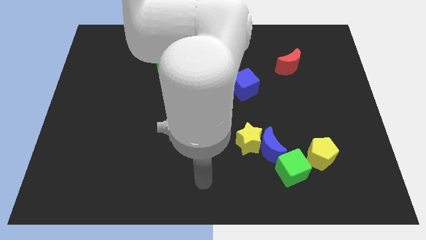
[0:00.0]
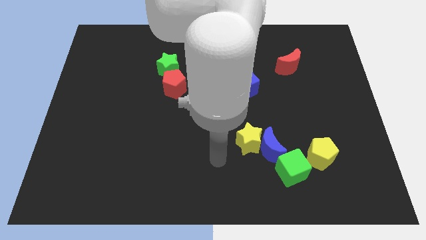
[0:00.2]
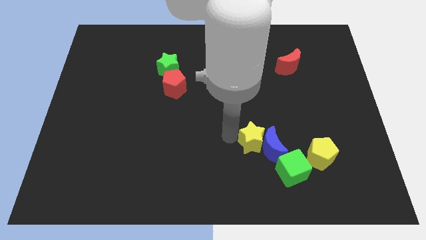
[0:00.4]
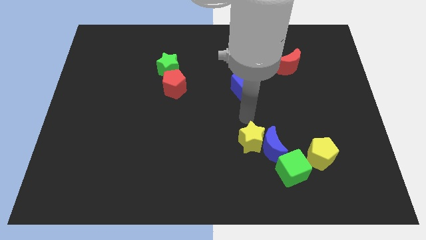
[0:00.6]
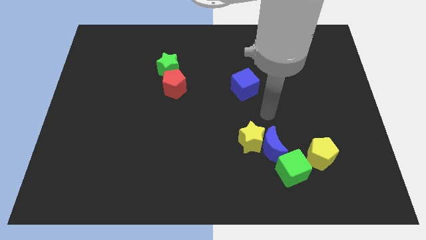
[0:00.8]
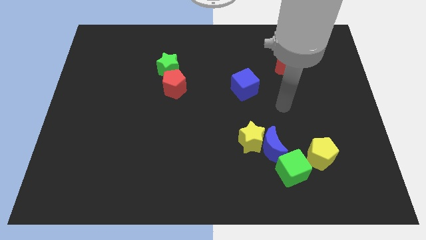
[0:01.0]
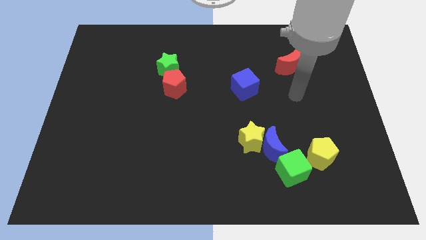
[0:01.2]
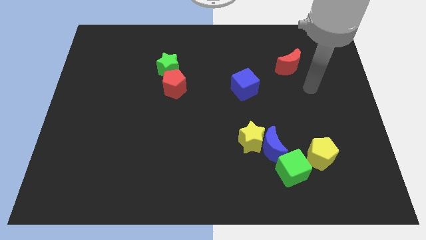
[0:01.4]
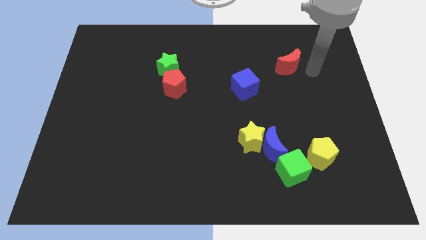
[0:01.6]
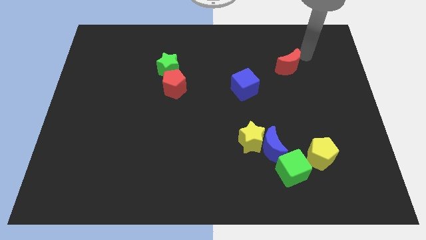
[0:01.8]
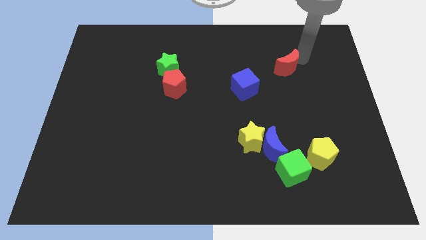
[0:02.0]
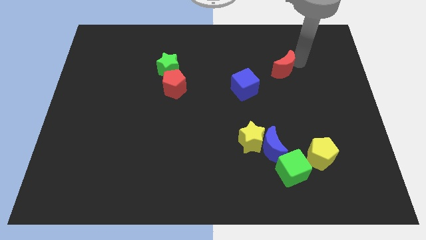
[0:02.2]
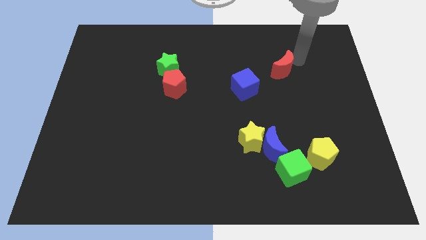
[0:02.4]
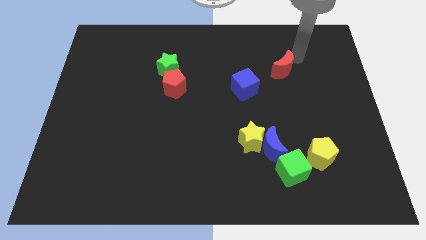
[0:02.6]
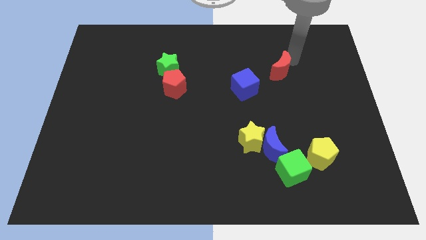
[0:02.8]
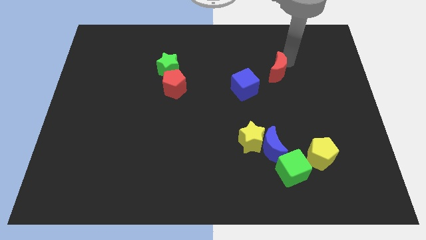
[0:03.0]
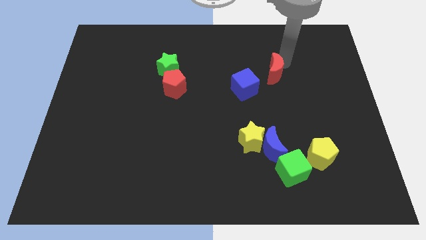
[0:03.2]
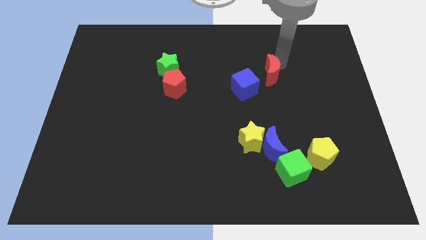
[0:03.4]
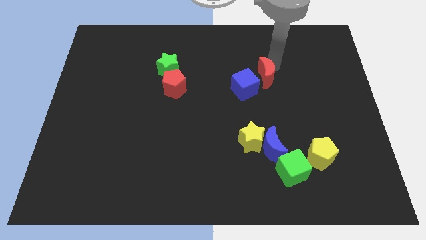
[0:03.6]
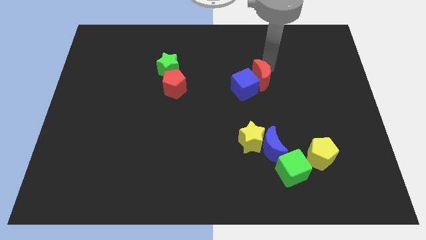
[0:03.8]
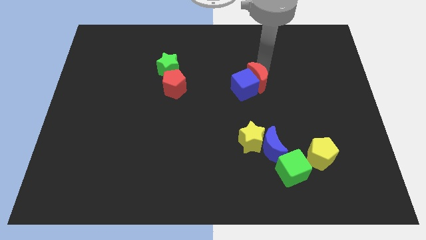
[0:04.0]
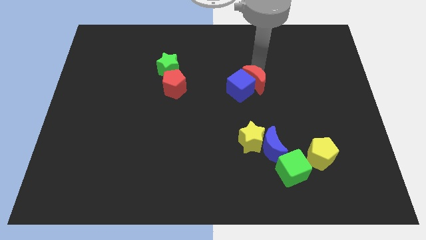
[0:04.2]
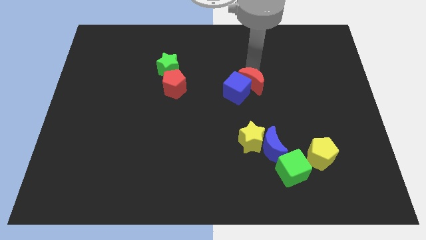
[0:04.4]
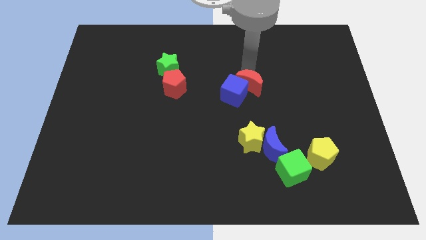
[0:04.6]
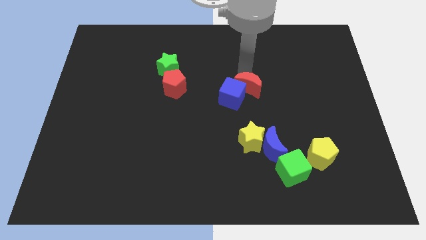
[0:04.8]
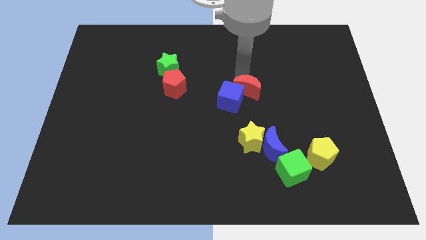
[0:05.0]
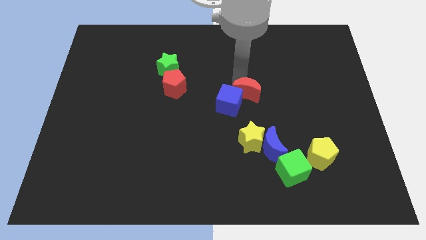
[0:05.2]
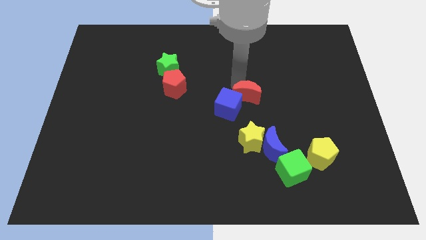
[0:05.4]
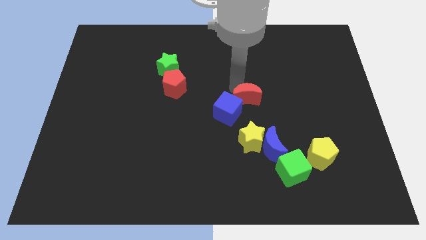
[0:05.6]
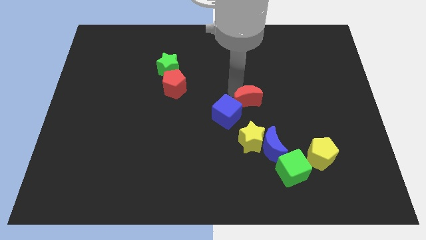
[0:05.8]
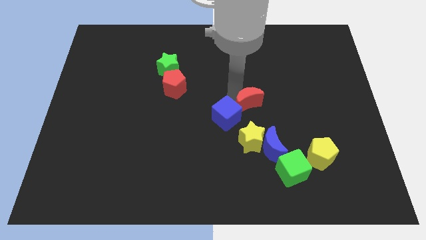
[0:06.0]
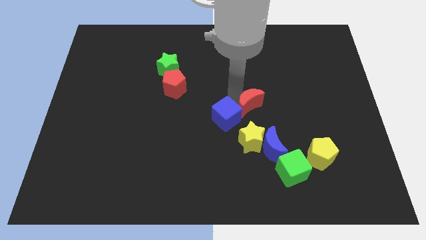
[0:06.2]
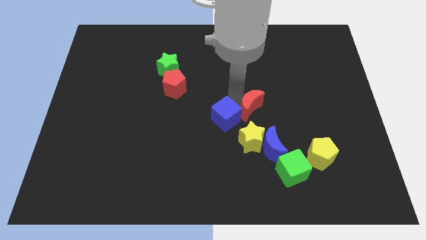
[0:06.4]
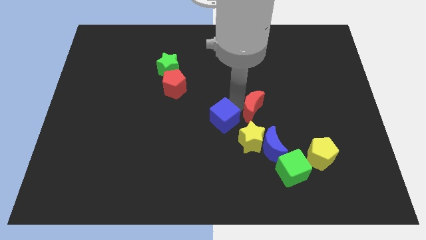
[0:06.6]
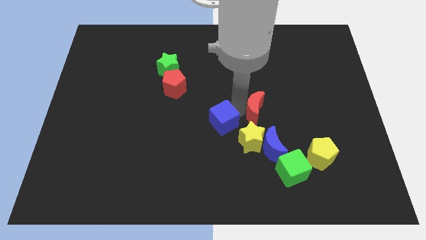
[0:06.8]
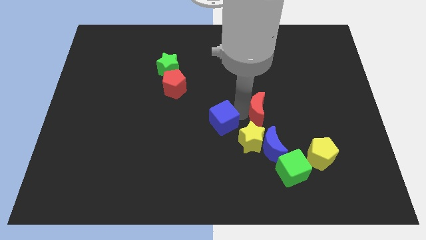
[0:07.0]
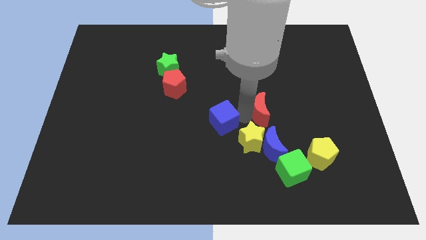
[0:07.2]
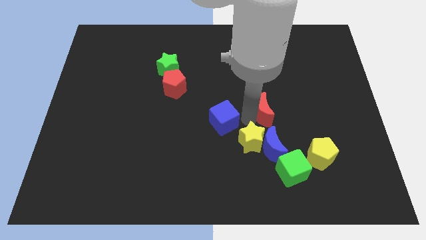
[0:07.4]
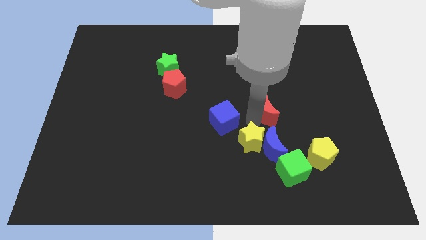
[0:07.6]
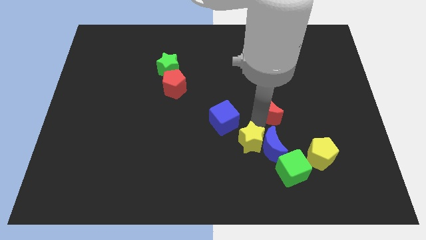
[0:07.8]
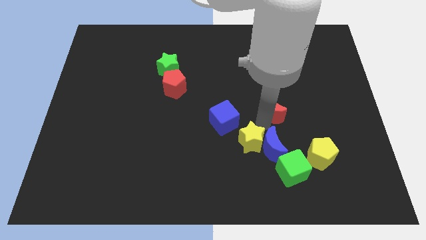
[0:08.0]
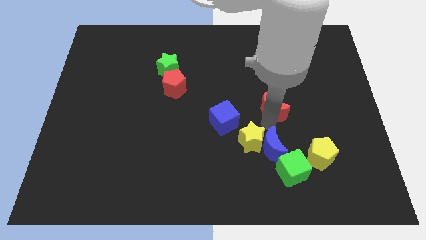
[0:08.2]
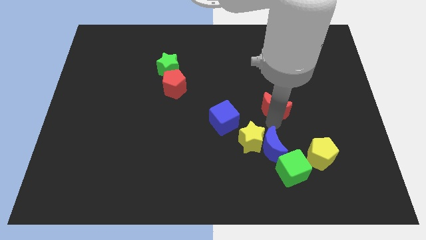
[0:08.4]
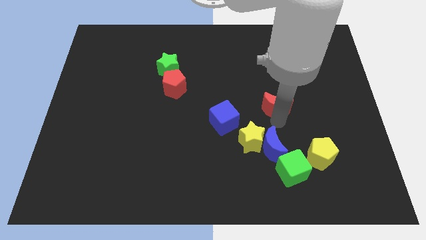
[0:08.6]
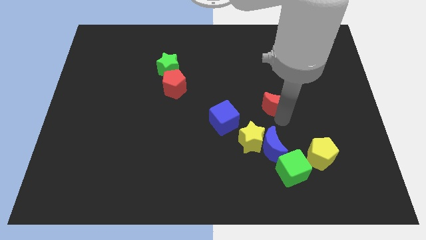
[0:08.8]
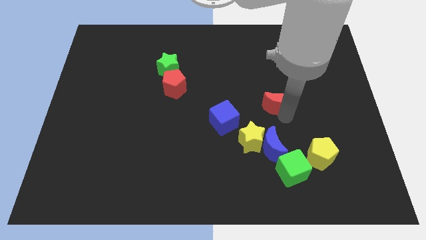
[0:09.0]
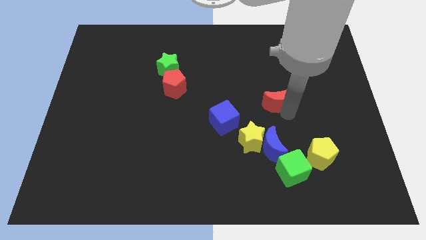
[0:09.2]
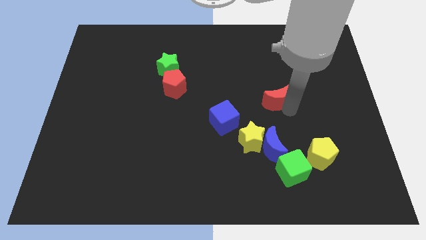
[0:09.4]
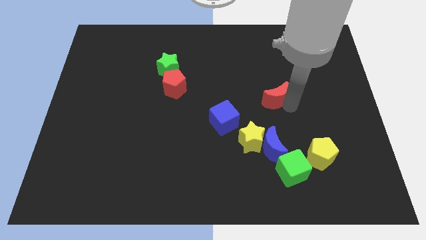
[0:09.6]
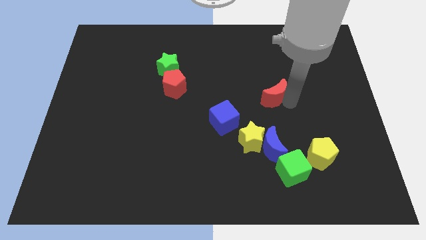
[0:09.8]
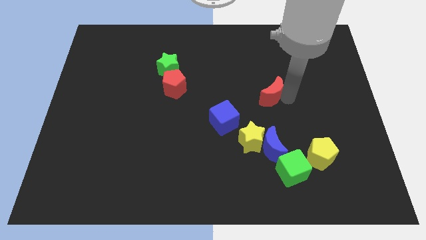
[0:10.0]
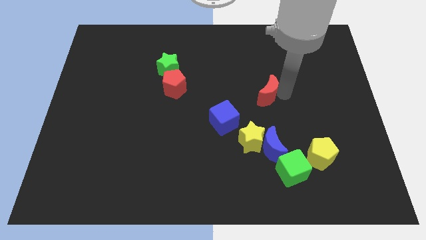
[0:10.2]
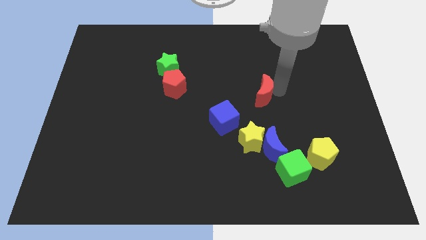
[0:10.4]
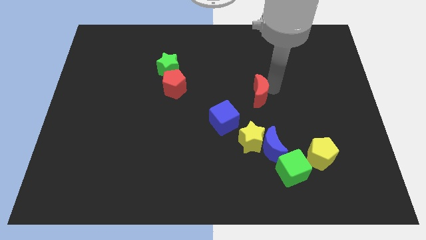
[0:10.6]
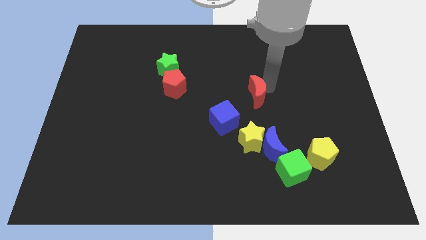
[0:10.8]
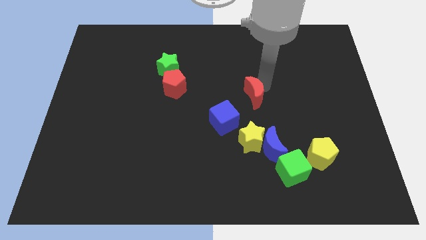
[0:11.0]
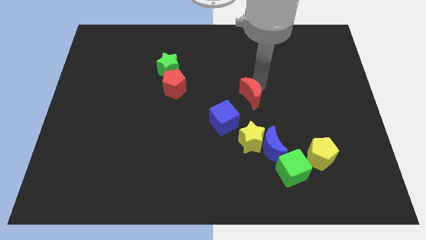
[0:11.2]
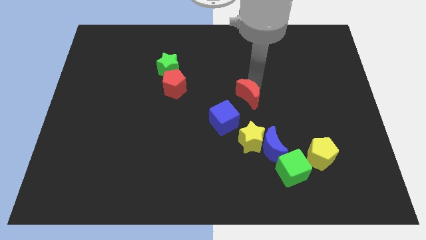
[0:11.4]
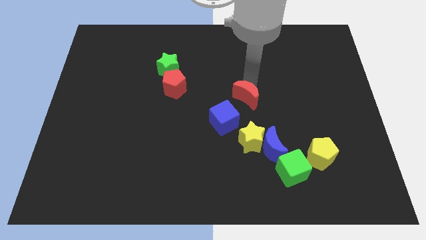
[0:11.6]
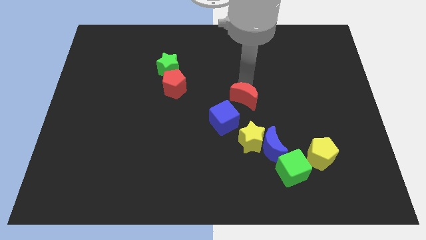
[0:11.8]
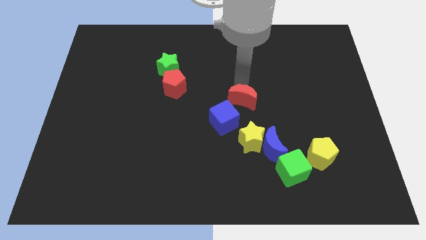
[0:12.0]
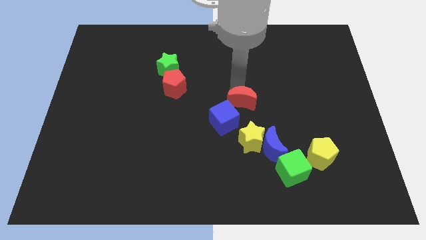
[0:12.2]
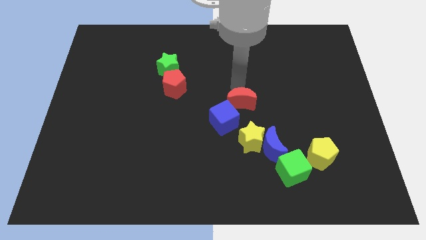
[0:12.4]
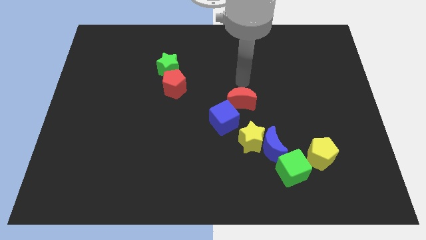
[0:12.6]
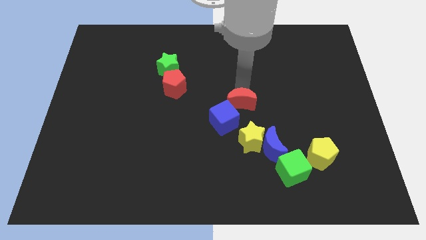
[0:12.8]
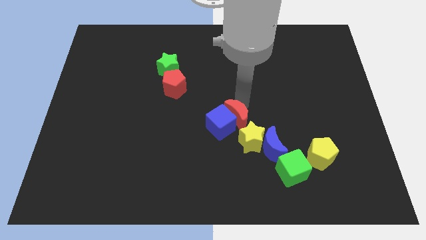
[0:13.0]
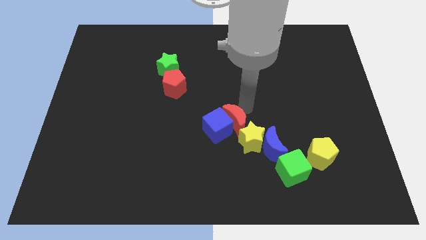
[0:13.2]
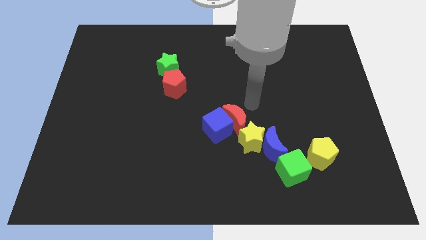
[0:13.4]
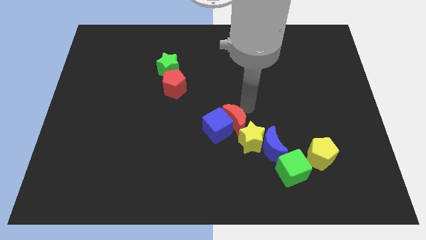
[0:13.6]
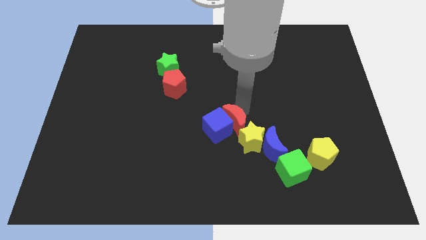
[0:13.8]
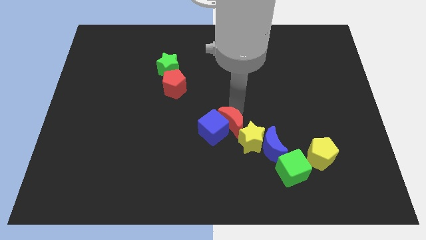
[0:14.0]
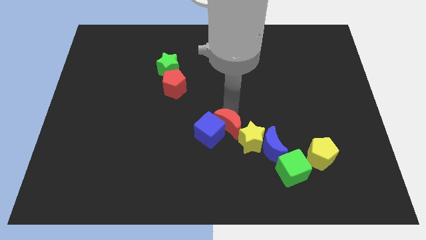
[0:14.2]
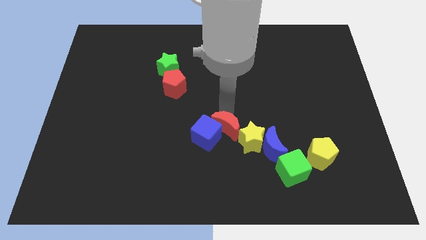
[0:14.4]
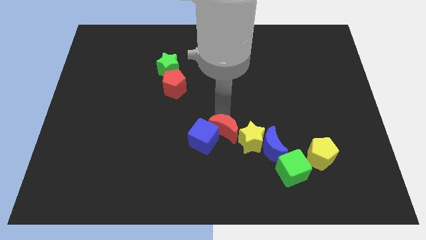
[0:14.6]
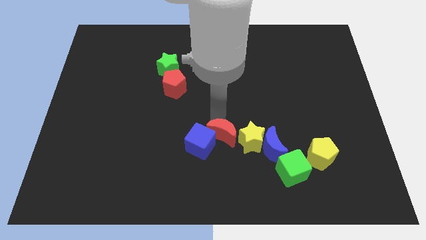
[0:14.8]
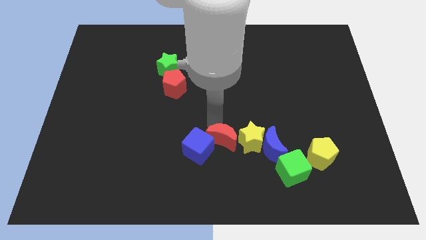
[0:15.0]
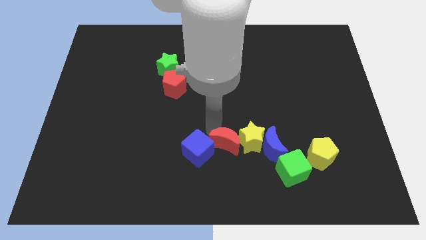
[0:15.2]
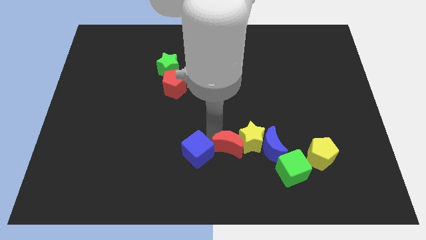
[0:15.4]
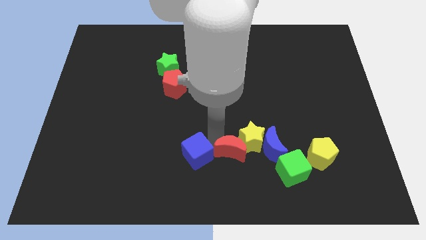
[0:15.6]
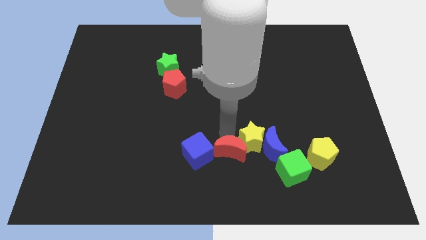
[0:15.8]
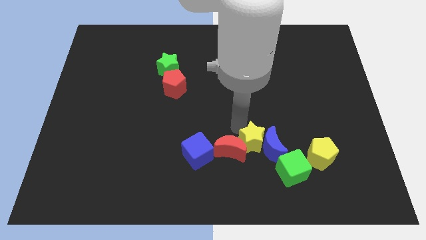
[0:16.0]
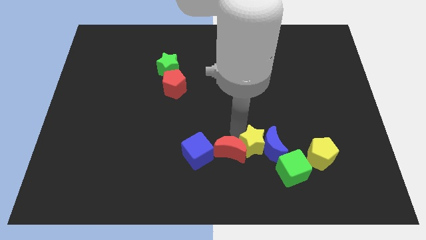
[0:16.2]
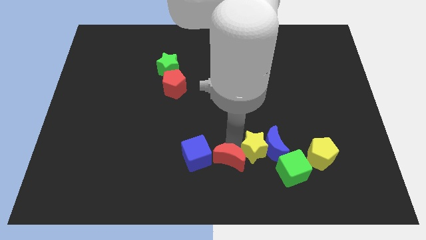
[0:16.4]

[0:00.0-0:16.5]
push the red moon to the bottom
